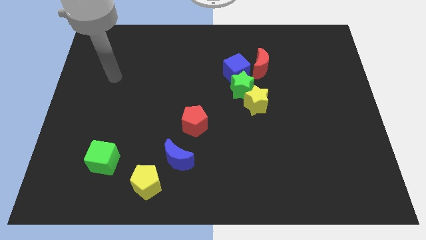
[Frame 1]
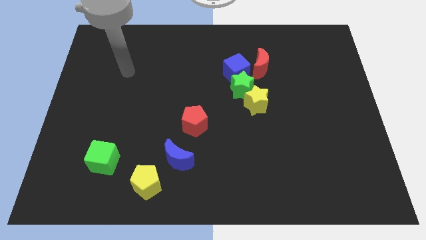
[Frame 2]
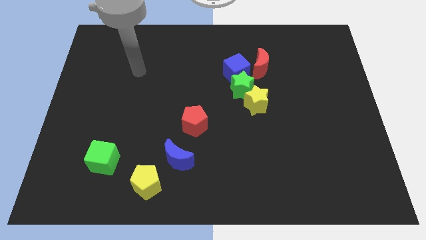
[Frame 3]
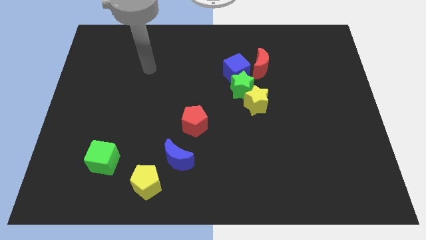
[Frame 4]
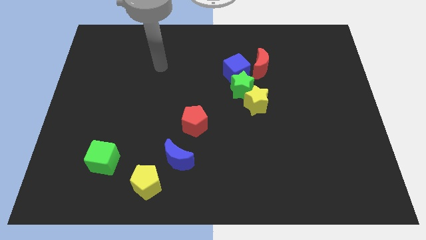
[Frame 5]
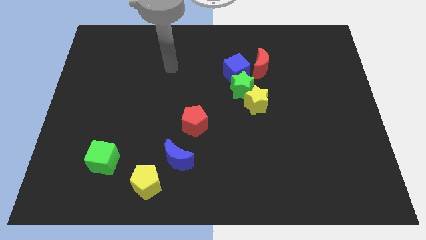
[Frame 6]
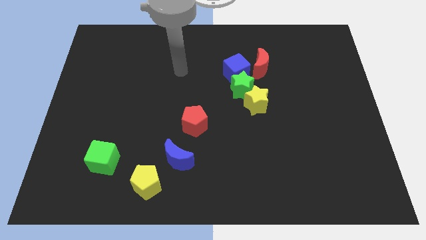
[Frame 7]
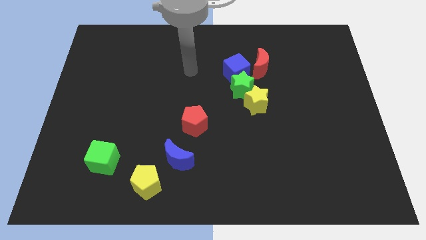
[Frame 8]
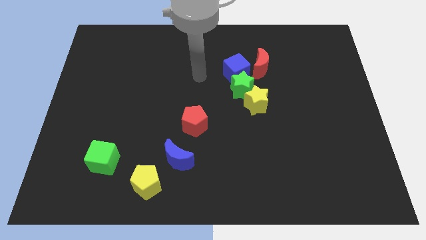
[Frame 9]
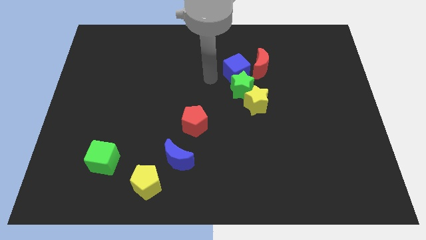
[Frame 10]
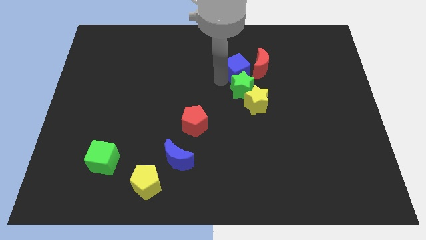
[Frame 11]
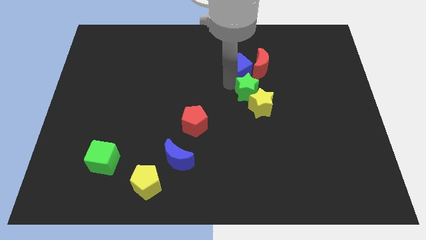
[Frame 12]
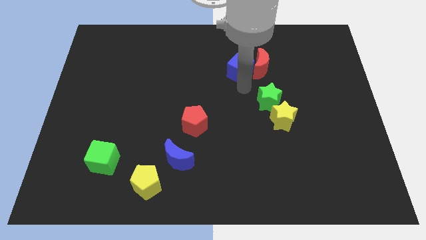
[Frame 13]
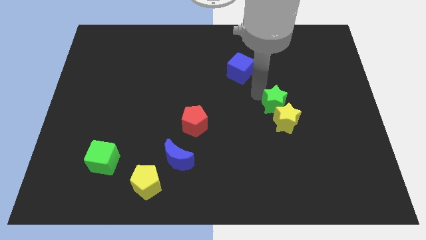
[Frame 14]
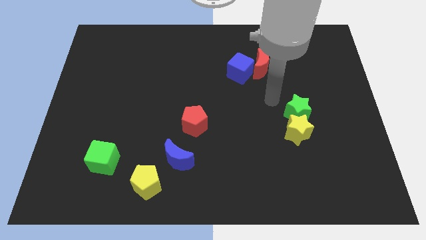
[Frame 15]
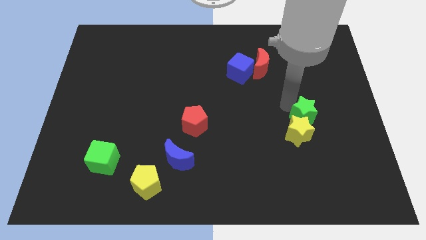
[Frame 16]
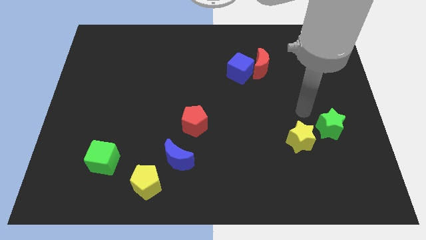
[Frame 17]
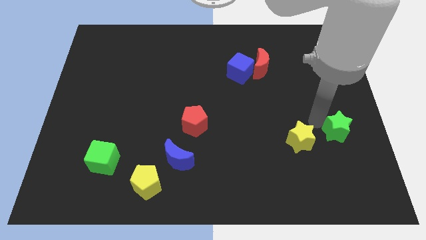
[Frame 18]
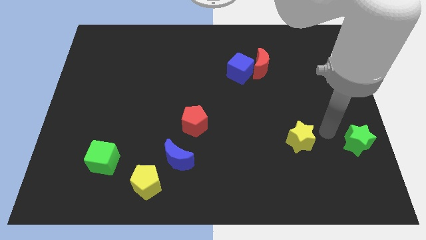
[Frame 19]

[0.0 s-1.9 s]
move the yellow star away from the green star

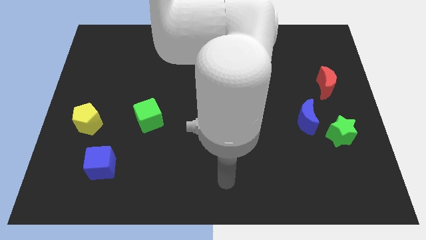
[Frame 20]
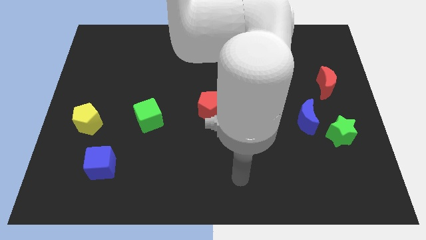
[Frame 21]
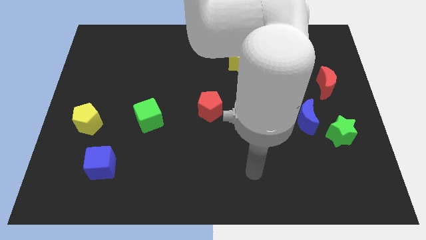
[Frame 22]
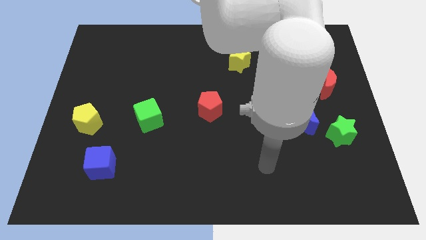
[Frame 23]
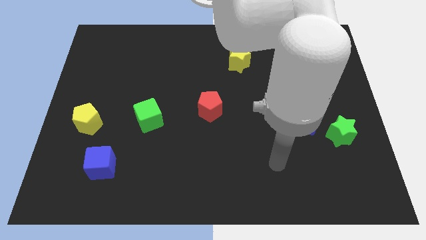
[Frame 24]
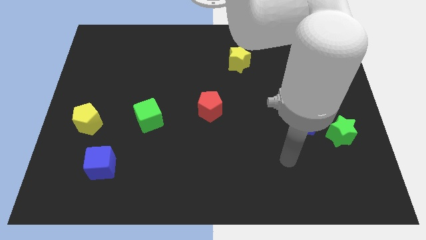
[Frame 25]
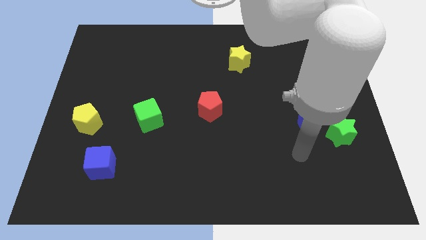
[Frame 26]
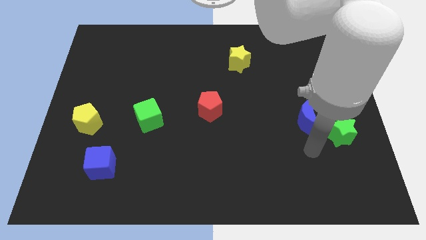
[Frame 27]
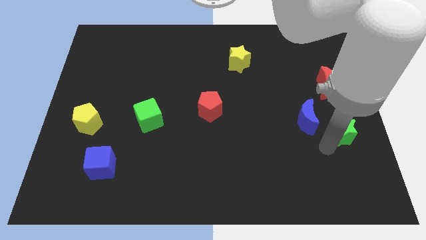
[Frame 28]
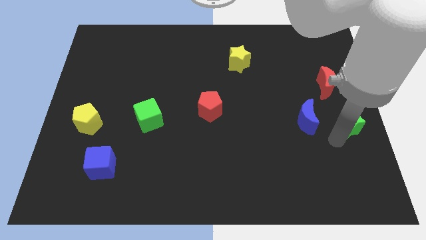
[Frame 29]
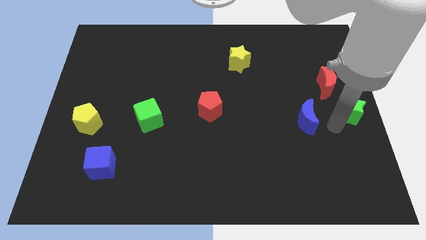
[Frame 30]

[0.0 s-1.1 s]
separate the blue moon from the green star

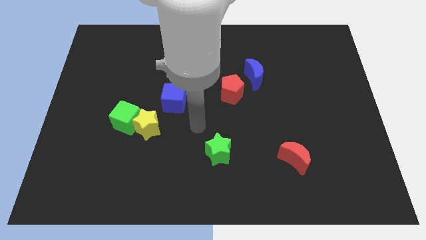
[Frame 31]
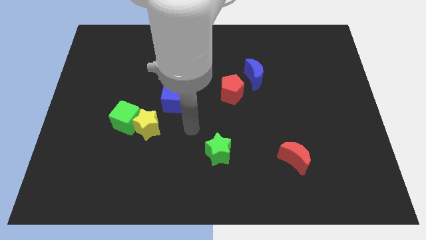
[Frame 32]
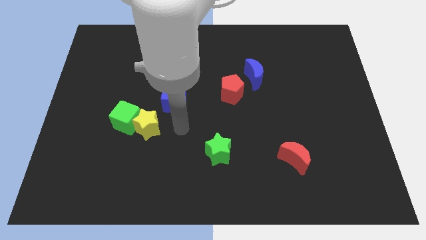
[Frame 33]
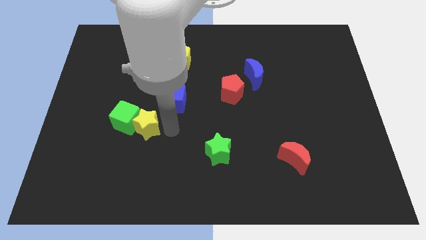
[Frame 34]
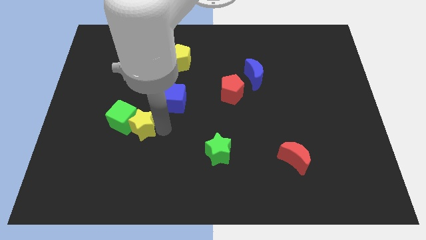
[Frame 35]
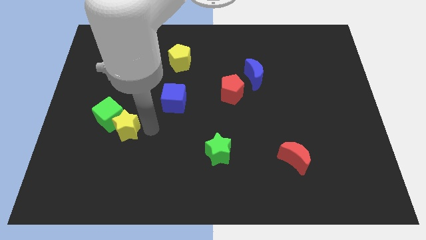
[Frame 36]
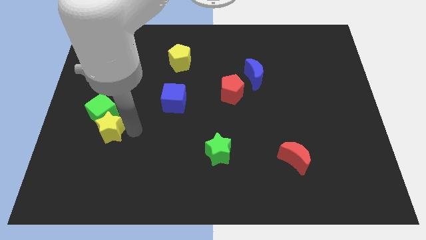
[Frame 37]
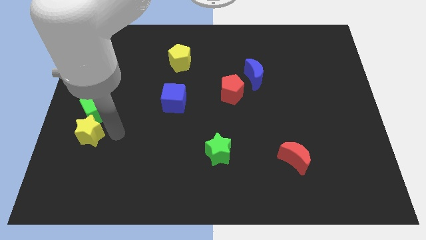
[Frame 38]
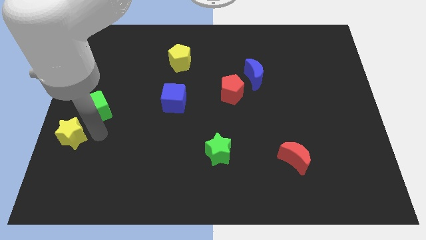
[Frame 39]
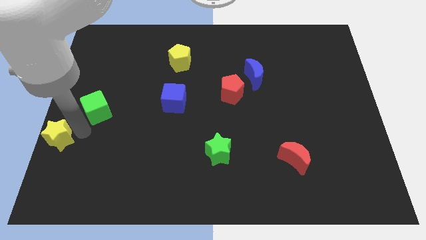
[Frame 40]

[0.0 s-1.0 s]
separate the green cube from the yellow star

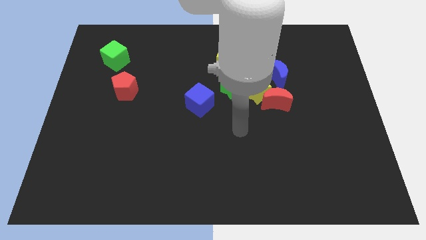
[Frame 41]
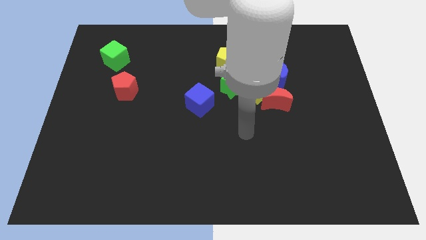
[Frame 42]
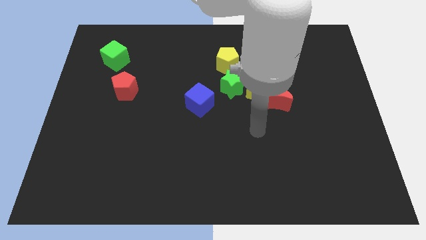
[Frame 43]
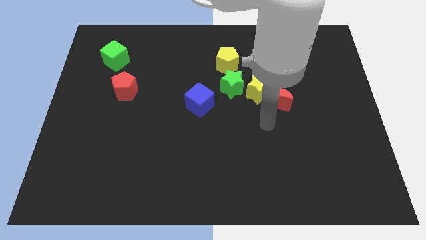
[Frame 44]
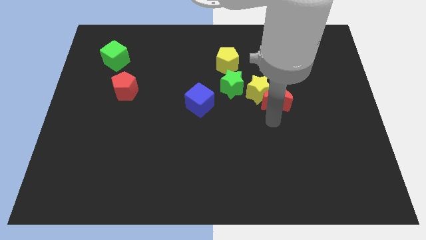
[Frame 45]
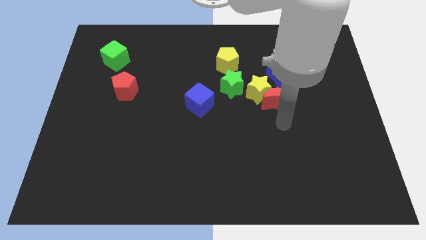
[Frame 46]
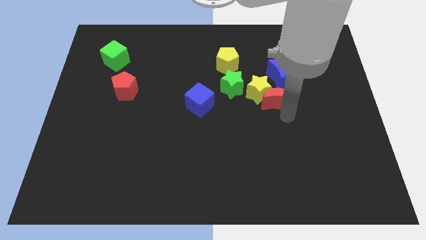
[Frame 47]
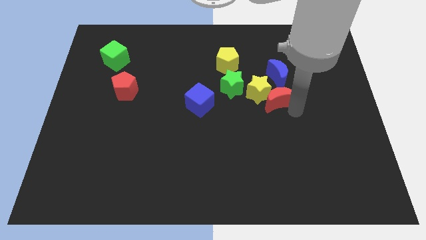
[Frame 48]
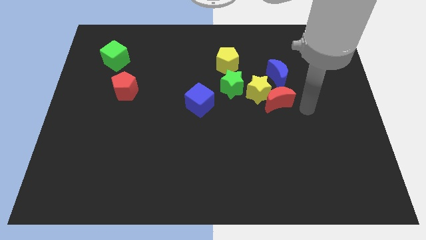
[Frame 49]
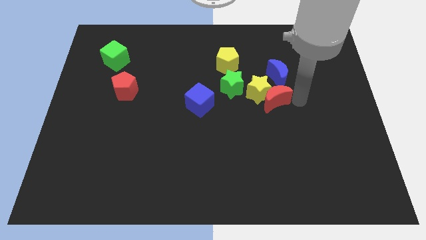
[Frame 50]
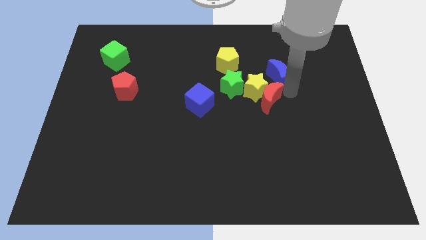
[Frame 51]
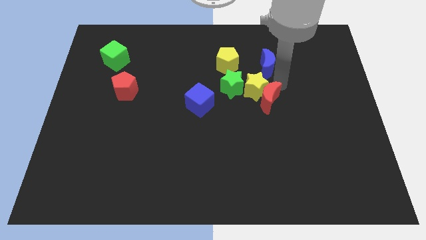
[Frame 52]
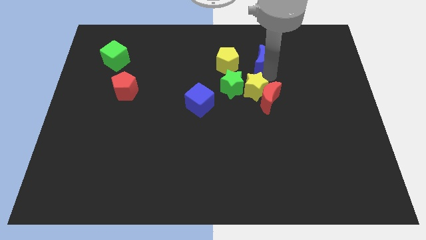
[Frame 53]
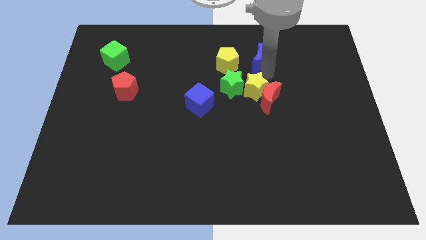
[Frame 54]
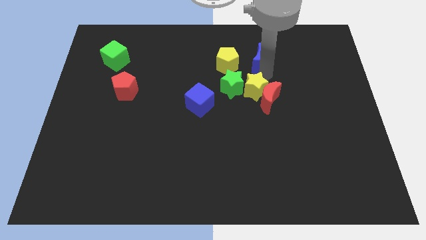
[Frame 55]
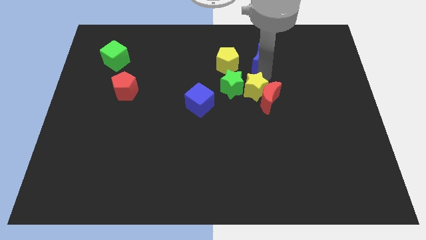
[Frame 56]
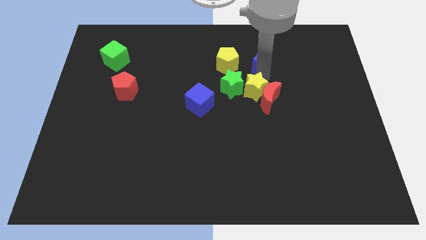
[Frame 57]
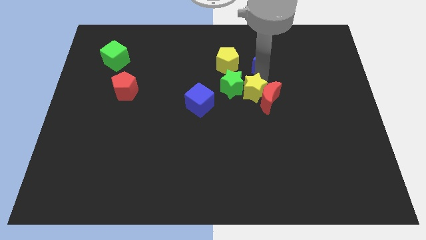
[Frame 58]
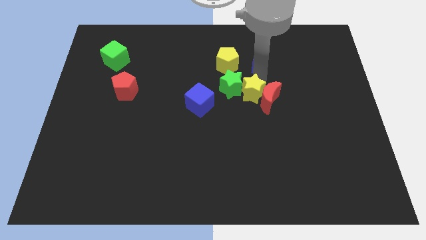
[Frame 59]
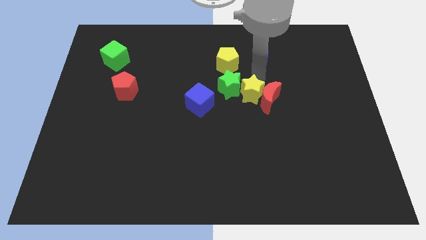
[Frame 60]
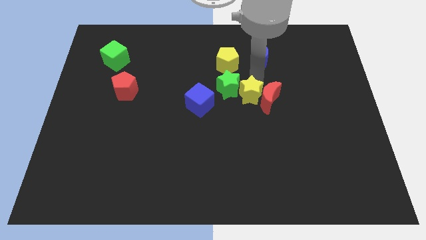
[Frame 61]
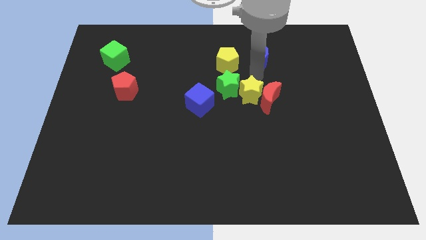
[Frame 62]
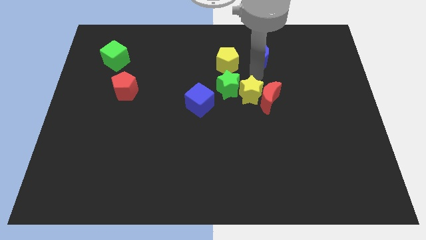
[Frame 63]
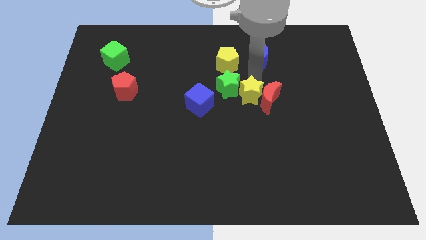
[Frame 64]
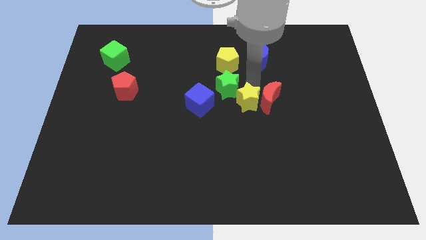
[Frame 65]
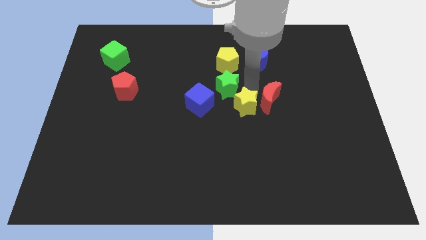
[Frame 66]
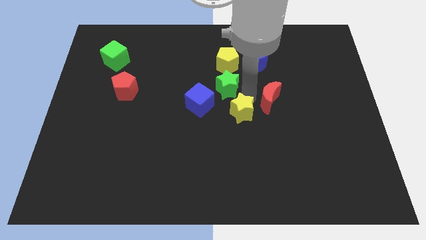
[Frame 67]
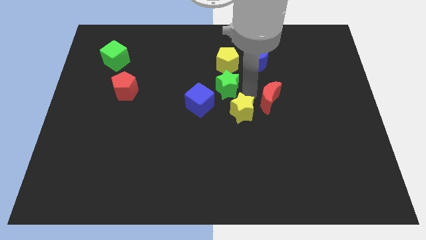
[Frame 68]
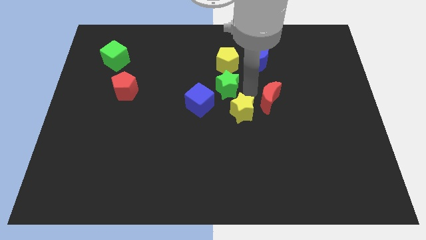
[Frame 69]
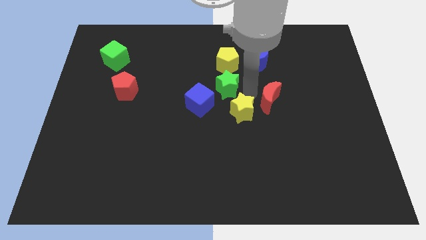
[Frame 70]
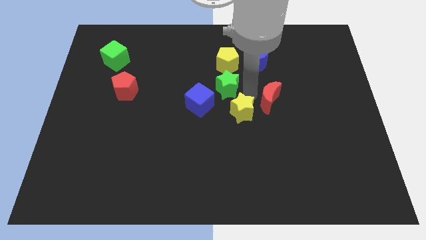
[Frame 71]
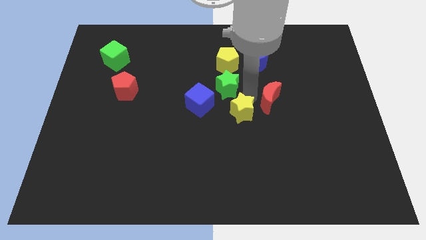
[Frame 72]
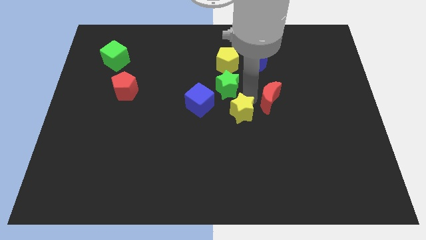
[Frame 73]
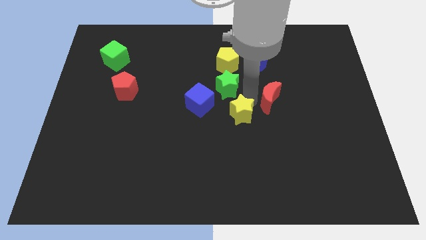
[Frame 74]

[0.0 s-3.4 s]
pull the yellow star apart from the red moon, green star, and blue moon

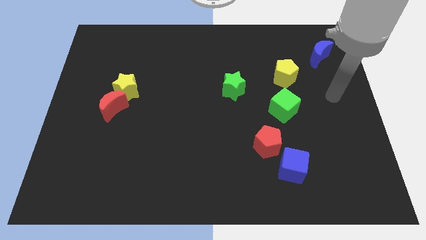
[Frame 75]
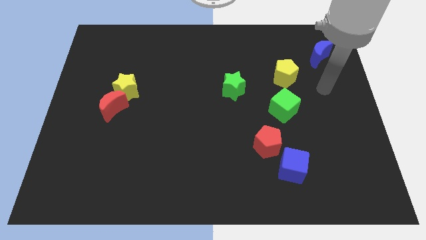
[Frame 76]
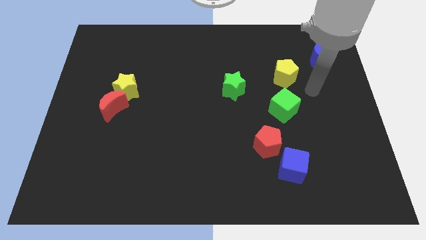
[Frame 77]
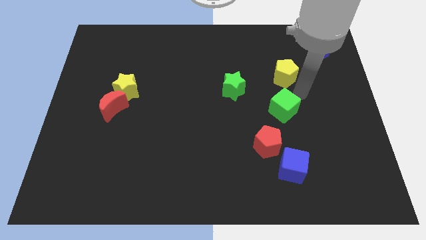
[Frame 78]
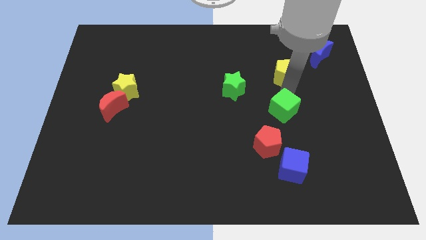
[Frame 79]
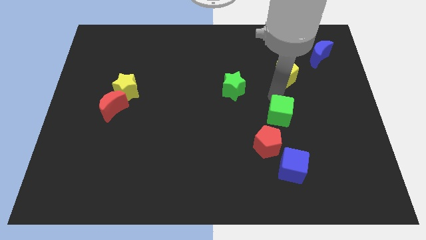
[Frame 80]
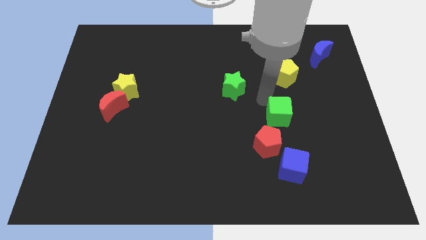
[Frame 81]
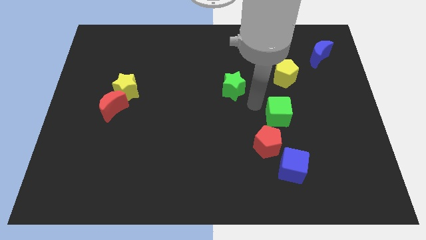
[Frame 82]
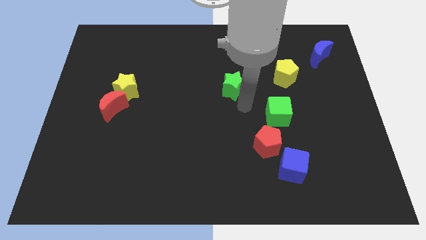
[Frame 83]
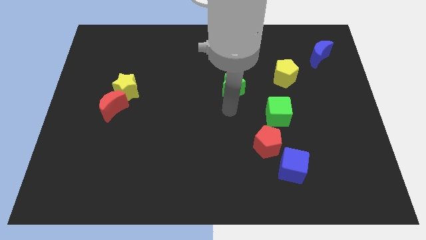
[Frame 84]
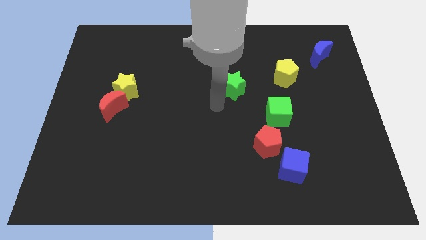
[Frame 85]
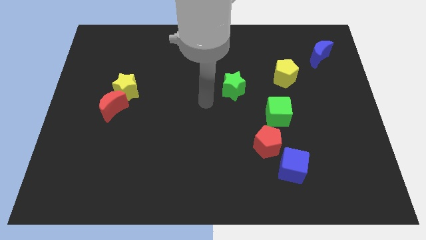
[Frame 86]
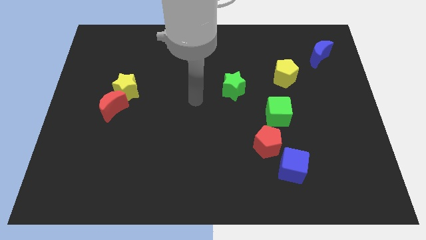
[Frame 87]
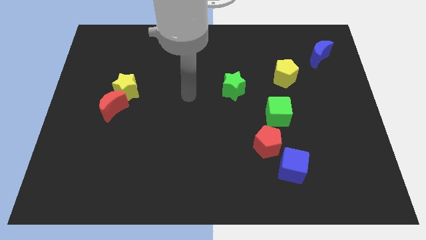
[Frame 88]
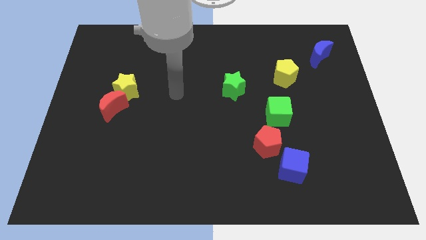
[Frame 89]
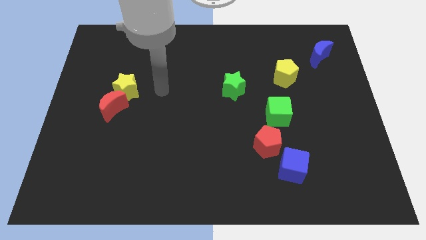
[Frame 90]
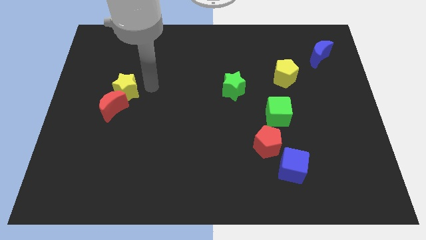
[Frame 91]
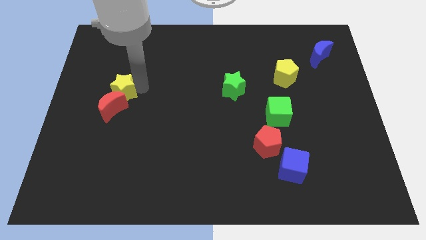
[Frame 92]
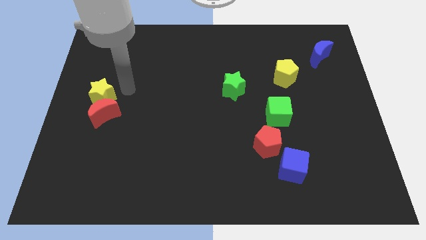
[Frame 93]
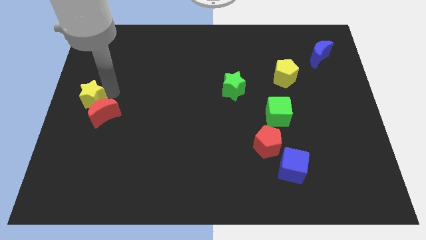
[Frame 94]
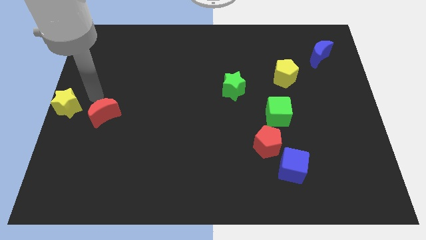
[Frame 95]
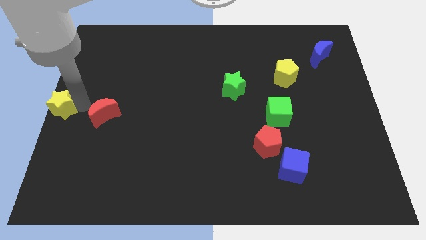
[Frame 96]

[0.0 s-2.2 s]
move the red moon away from the yellow star
